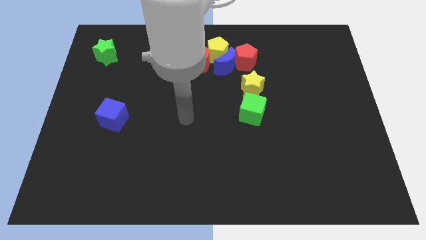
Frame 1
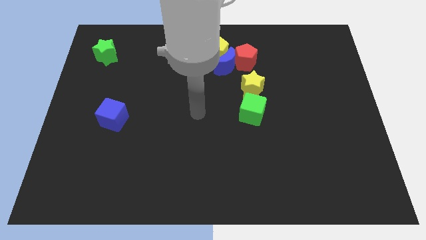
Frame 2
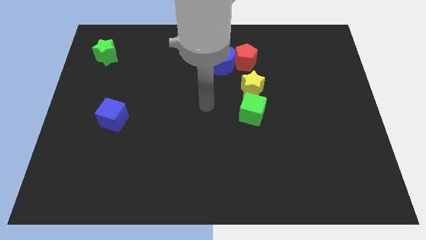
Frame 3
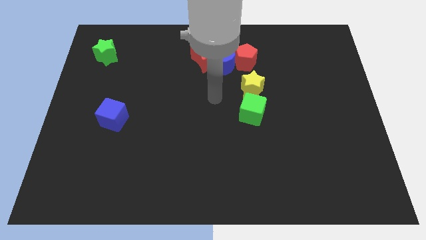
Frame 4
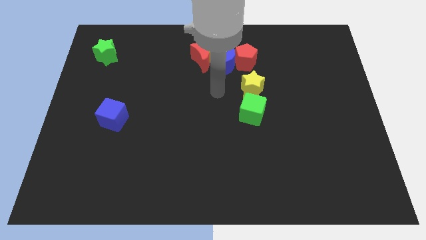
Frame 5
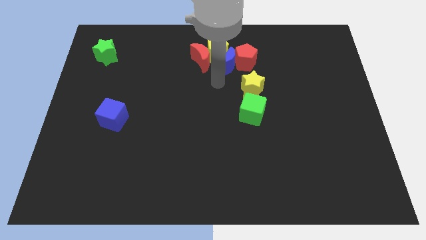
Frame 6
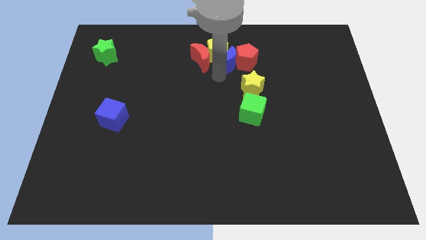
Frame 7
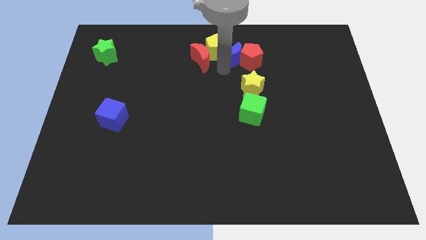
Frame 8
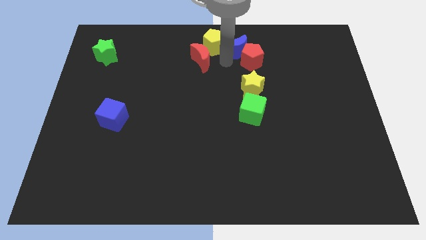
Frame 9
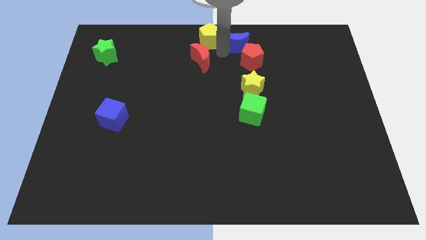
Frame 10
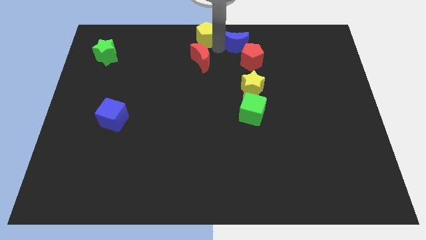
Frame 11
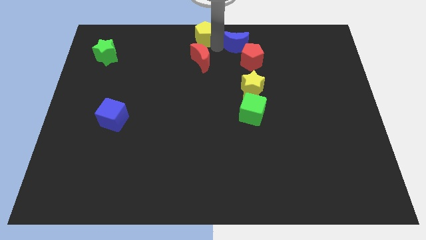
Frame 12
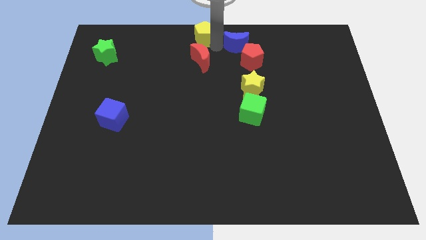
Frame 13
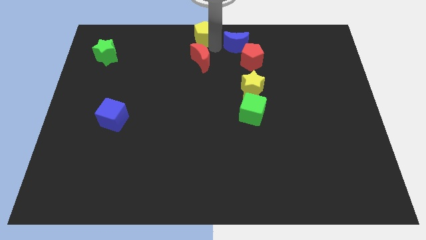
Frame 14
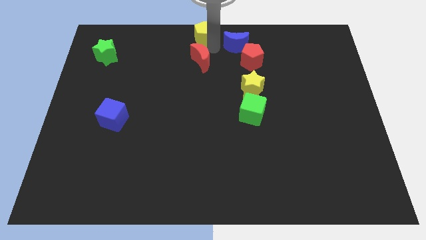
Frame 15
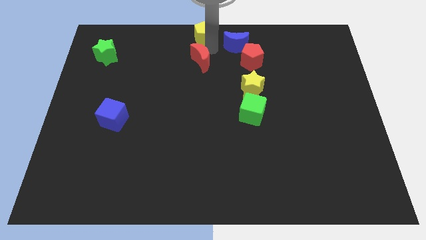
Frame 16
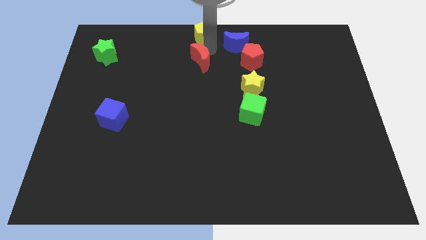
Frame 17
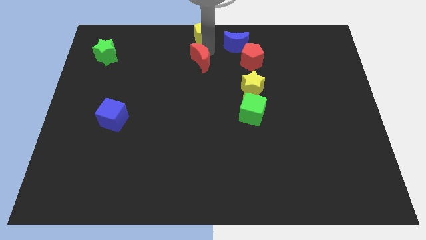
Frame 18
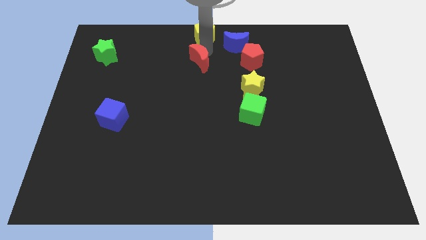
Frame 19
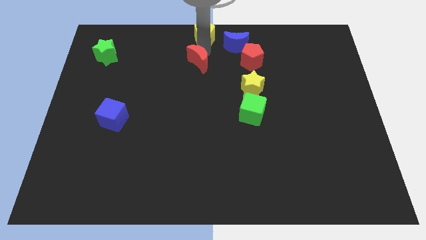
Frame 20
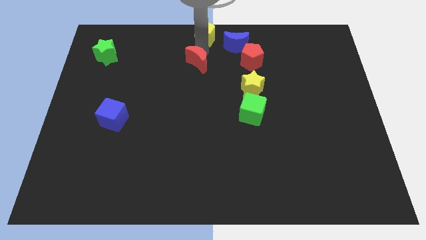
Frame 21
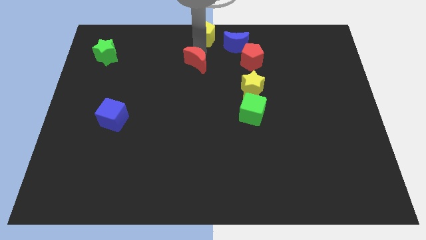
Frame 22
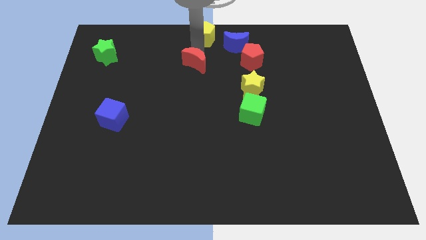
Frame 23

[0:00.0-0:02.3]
separate the red moon from the yellow pentagon and blue moon

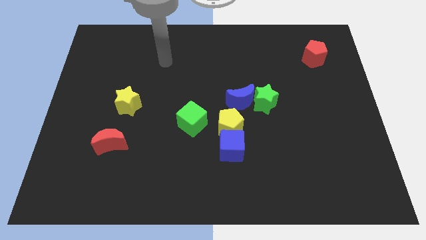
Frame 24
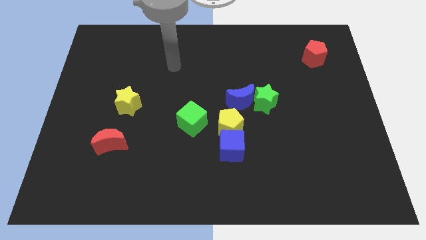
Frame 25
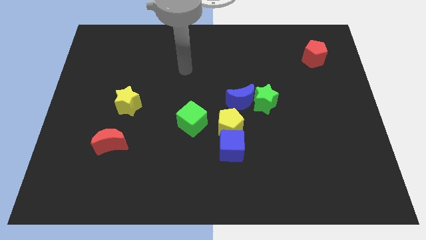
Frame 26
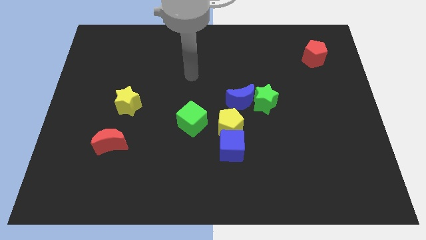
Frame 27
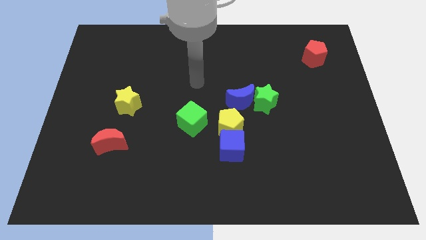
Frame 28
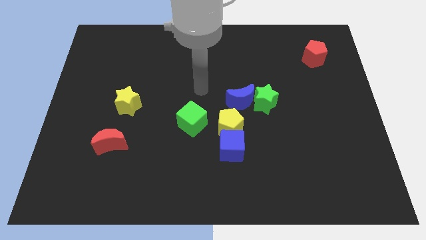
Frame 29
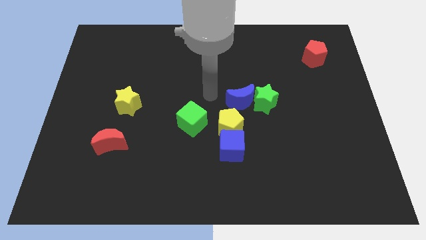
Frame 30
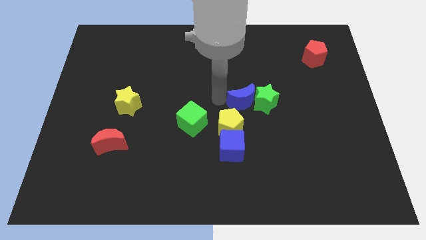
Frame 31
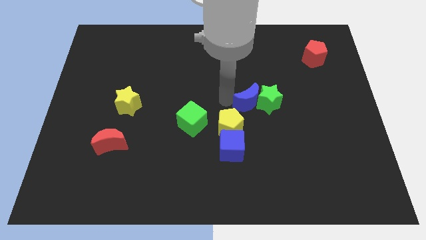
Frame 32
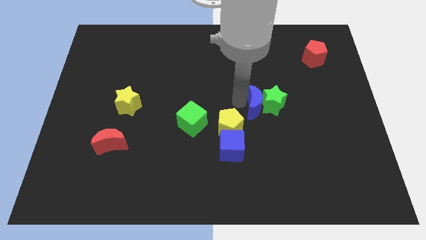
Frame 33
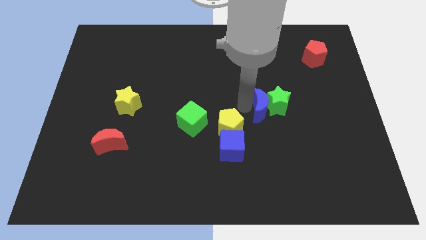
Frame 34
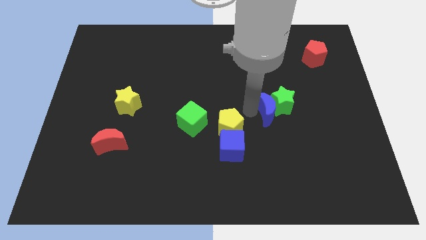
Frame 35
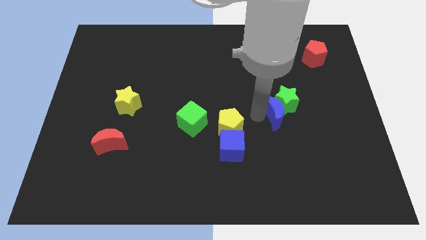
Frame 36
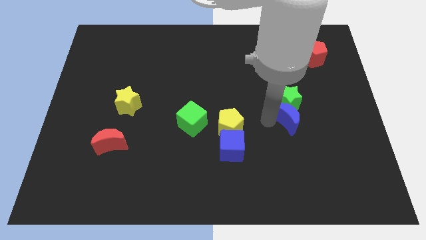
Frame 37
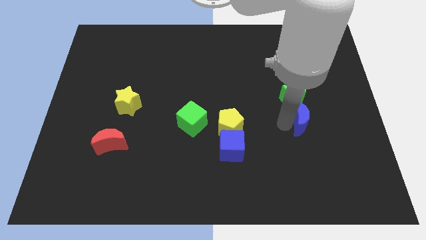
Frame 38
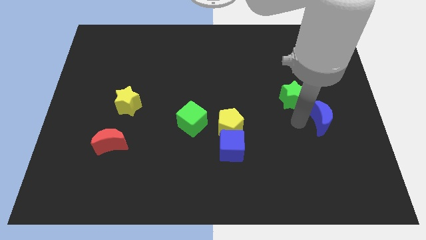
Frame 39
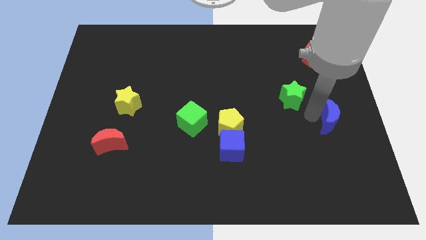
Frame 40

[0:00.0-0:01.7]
separate the green star from the blue moon

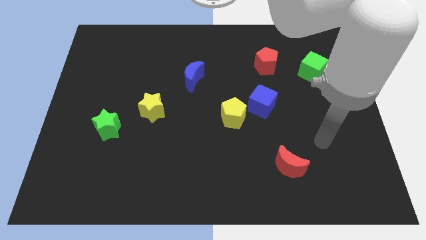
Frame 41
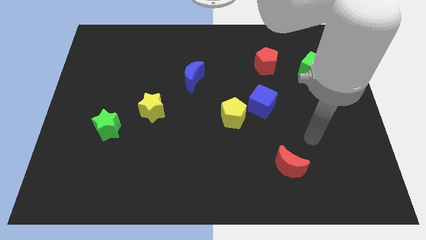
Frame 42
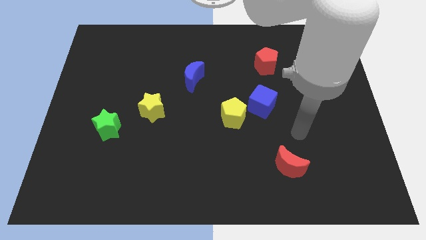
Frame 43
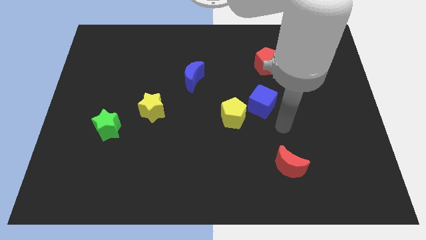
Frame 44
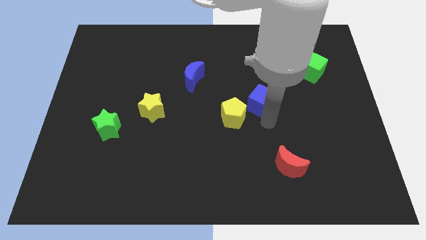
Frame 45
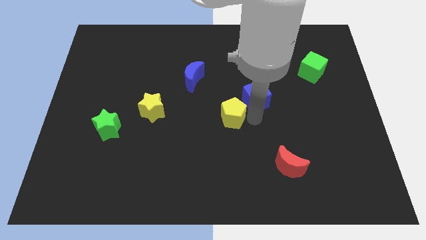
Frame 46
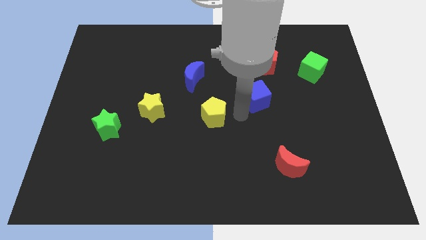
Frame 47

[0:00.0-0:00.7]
move the blue cube away from the yellow pentagon

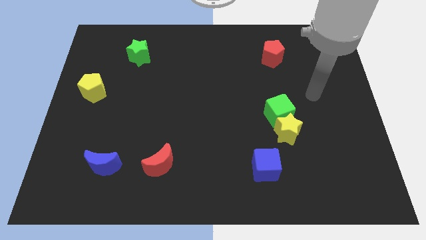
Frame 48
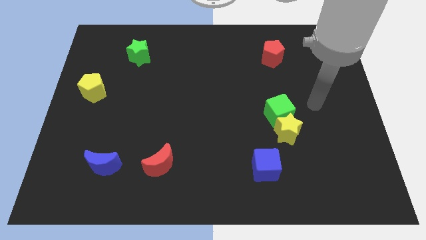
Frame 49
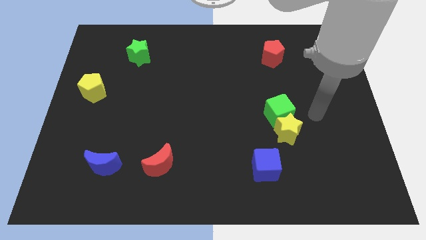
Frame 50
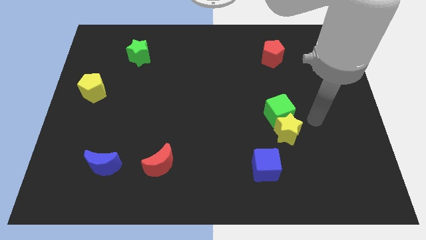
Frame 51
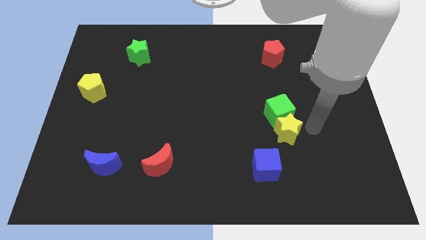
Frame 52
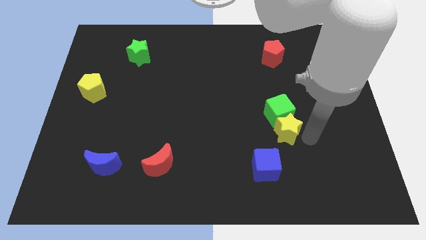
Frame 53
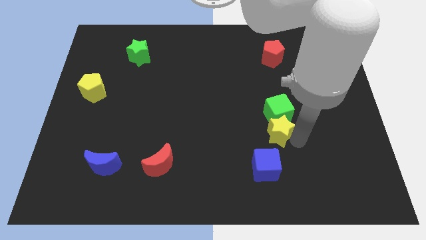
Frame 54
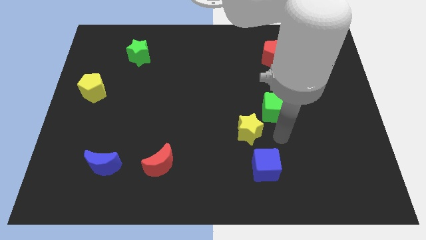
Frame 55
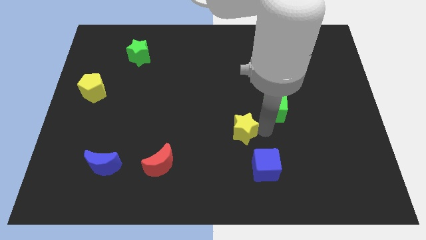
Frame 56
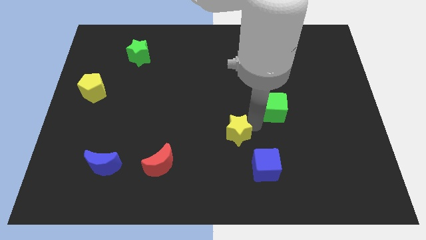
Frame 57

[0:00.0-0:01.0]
separate the green cube from the yellow star

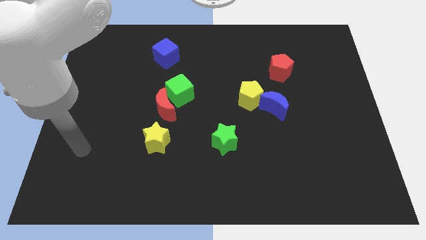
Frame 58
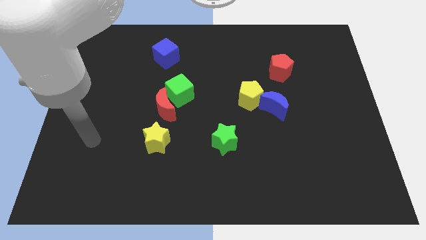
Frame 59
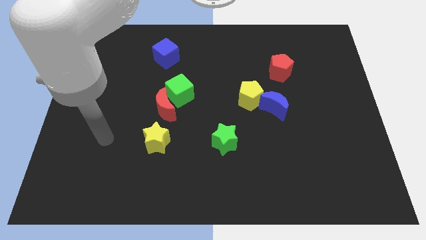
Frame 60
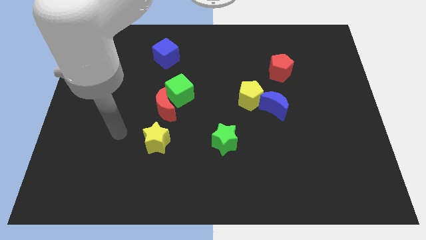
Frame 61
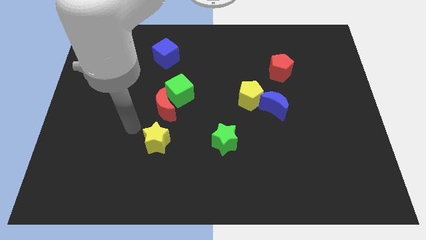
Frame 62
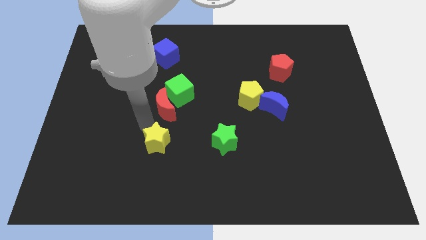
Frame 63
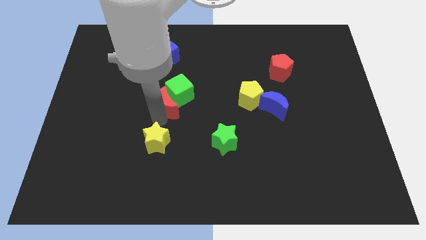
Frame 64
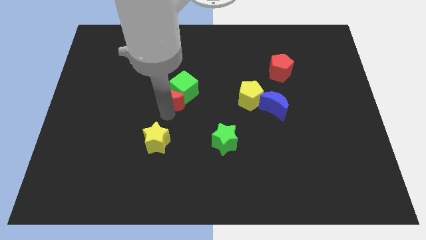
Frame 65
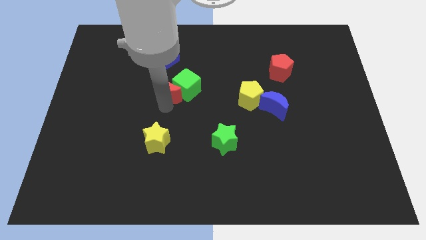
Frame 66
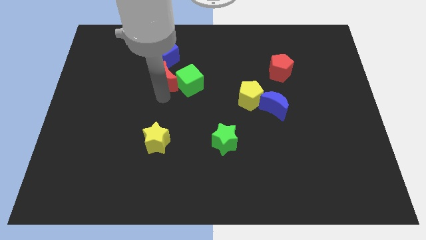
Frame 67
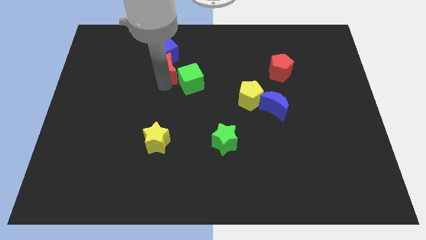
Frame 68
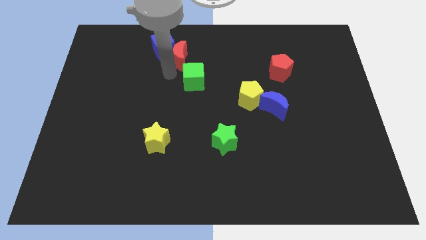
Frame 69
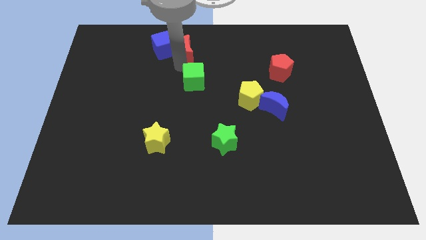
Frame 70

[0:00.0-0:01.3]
separate the green cube from the red moon

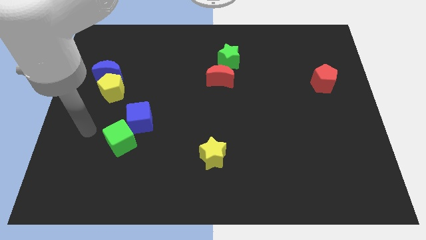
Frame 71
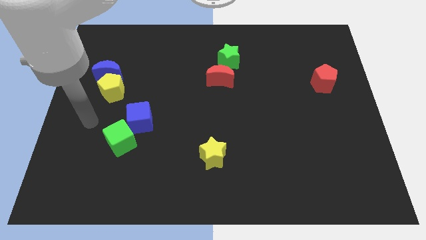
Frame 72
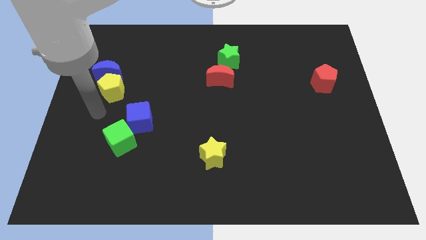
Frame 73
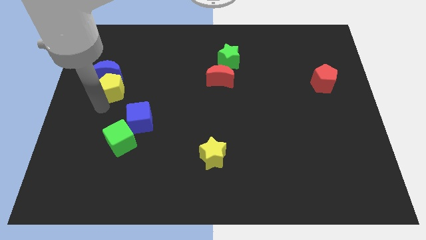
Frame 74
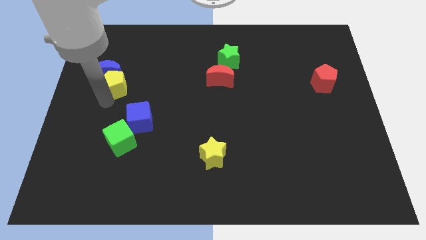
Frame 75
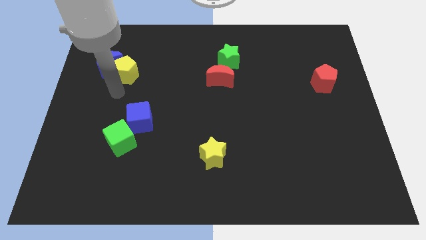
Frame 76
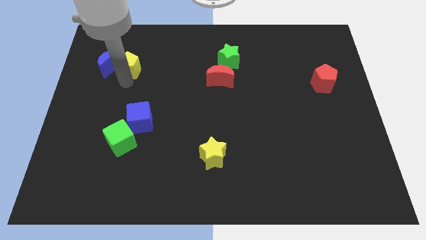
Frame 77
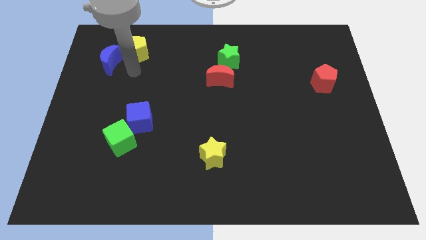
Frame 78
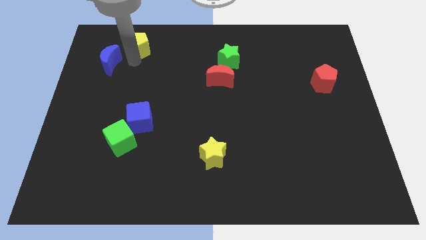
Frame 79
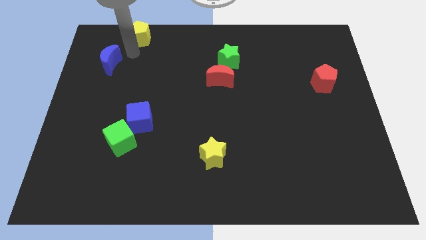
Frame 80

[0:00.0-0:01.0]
pull the blue moon apart from the yellow pentagon

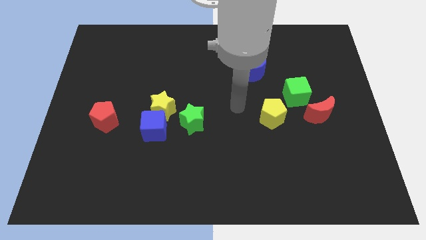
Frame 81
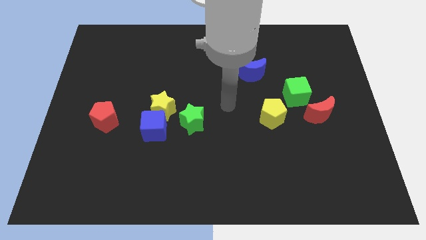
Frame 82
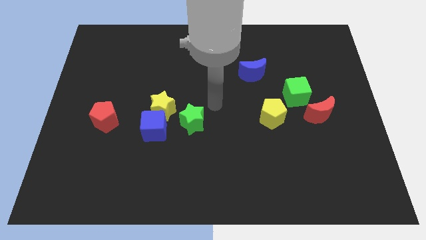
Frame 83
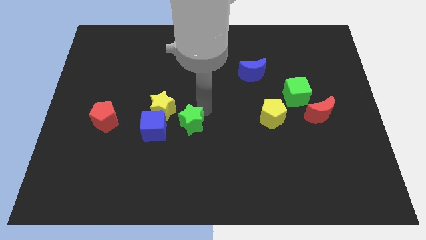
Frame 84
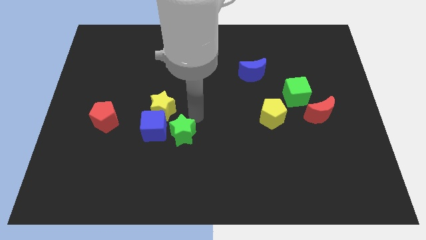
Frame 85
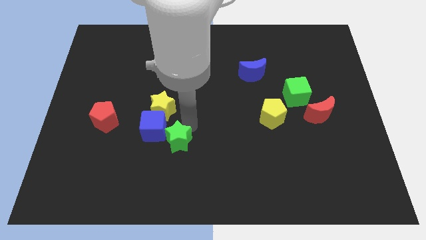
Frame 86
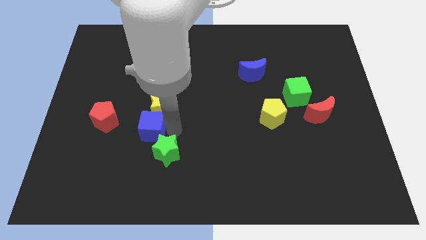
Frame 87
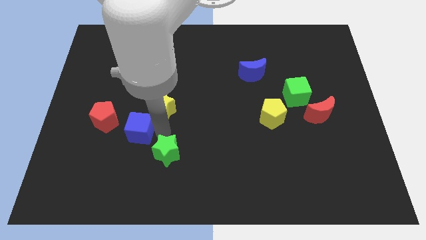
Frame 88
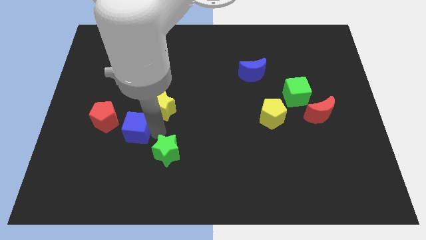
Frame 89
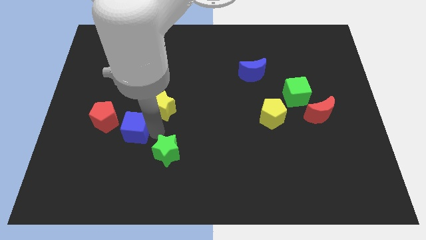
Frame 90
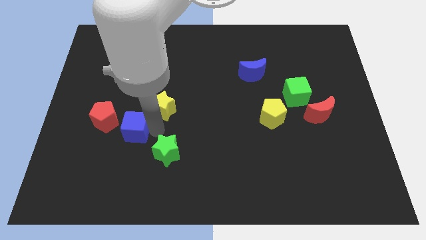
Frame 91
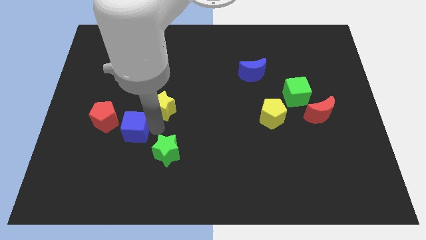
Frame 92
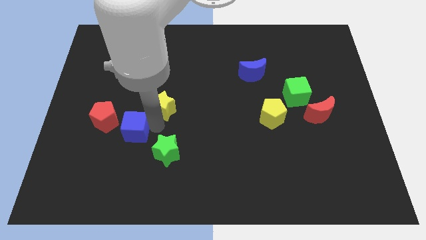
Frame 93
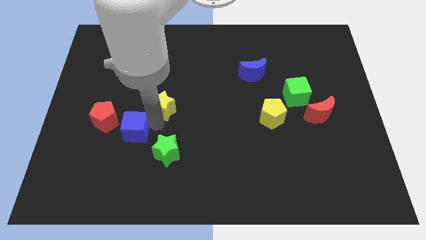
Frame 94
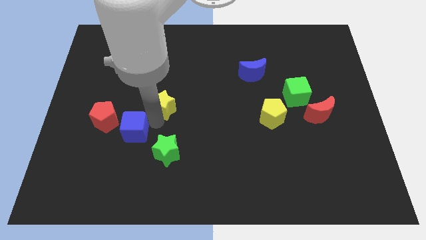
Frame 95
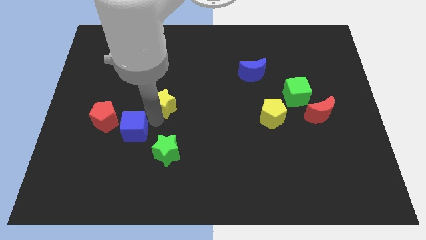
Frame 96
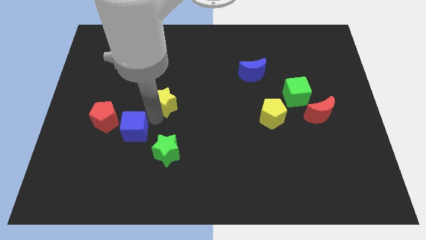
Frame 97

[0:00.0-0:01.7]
move the yellow star away from the blue cube and green star
